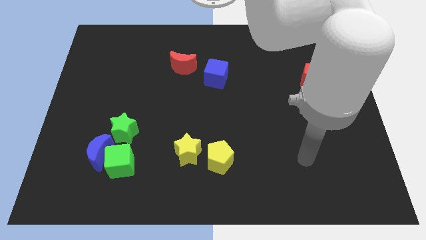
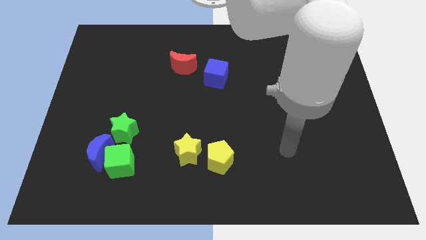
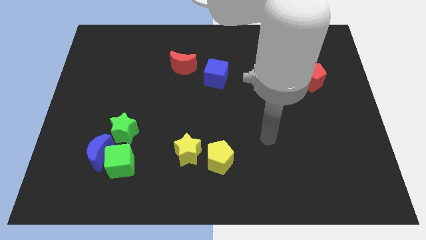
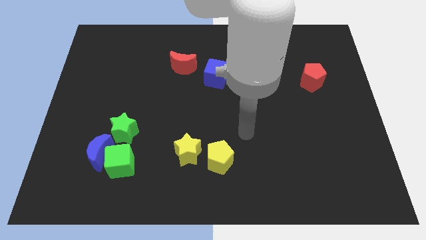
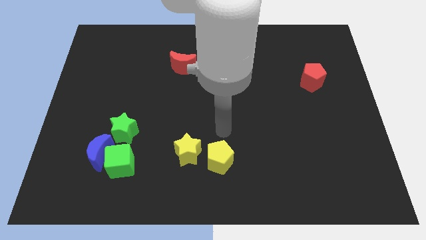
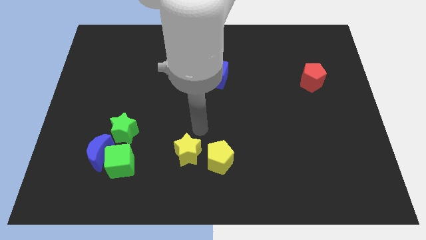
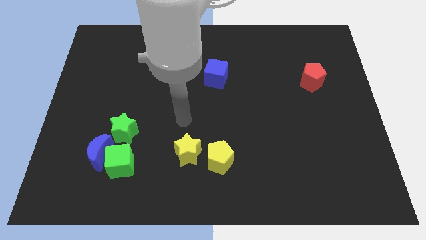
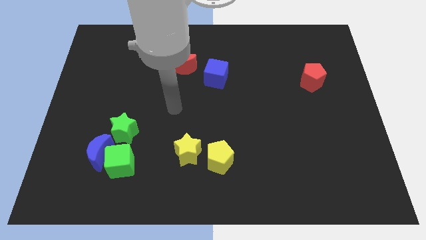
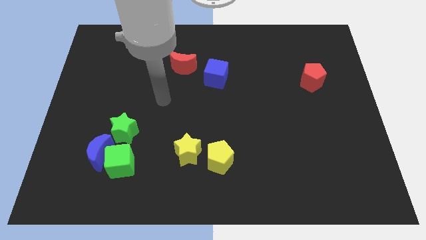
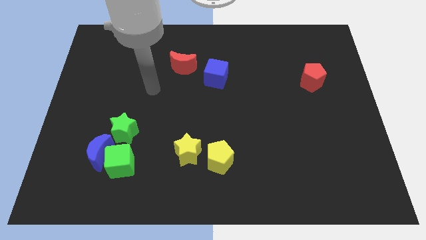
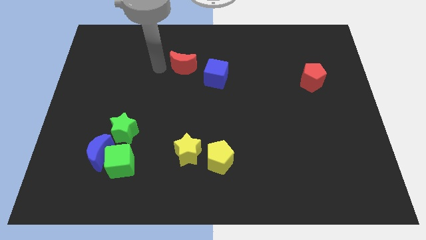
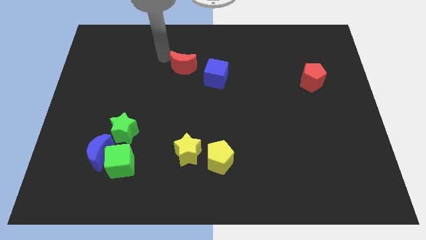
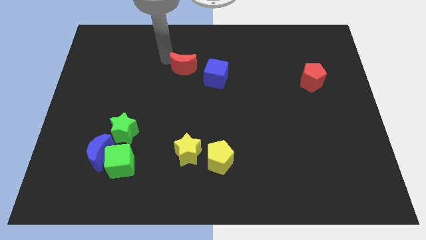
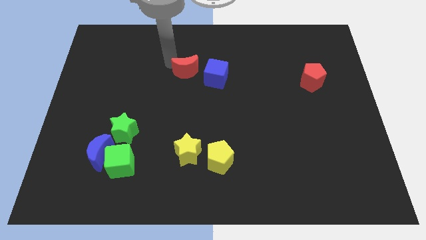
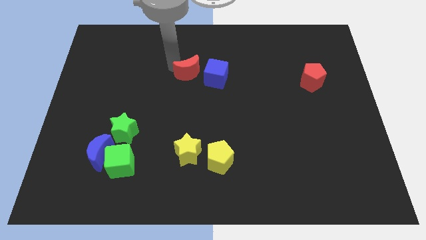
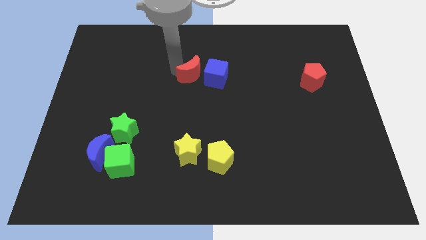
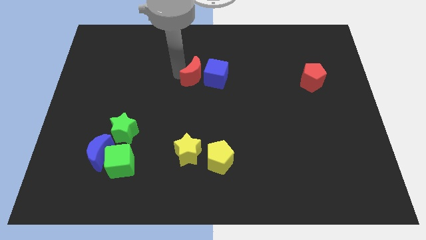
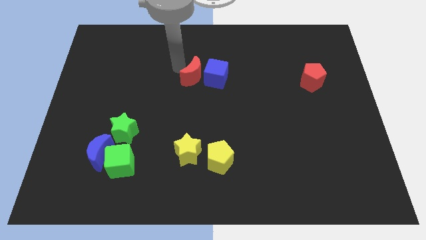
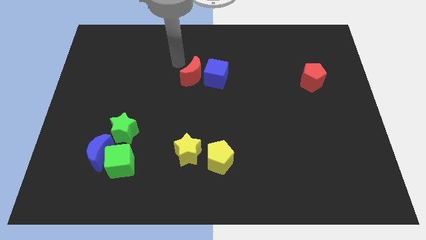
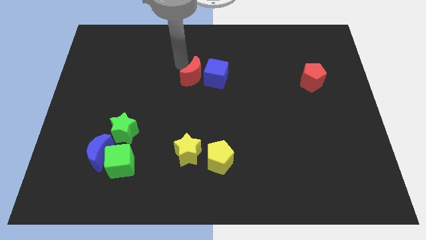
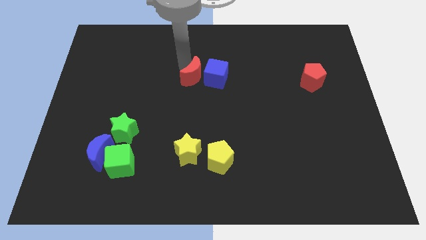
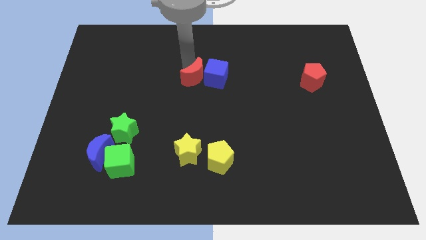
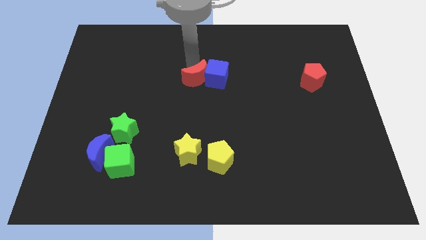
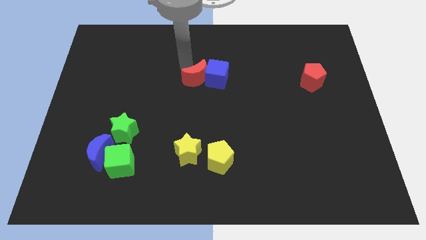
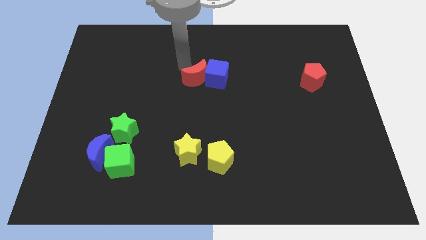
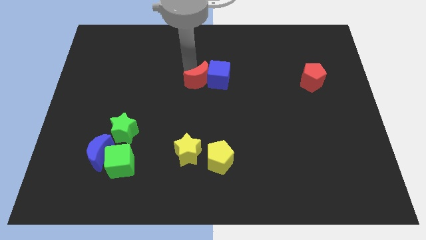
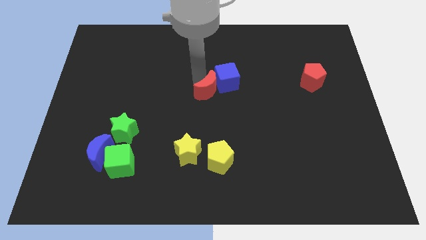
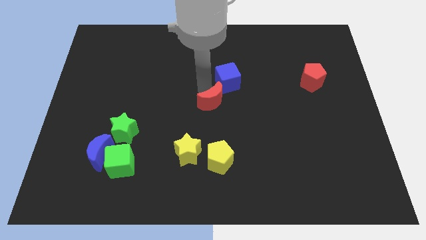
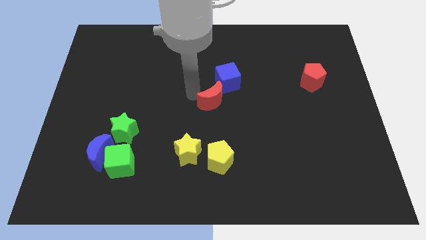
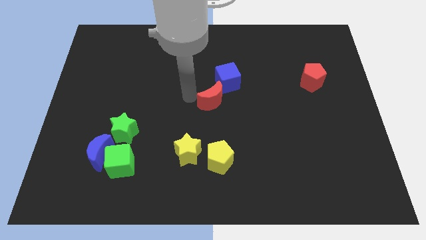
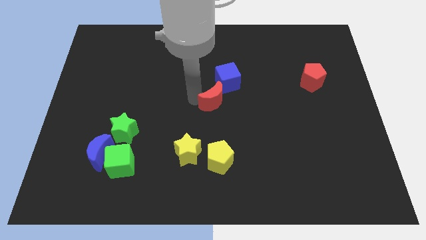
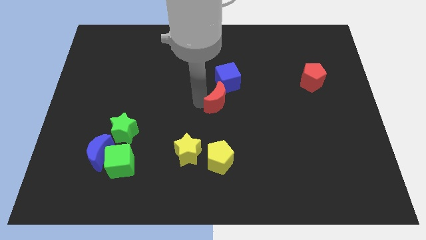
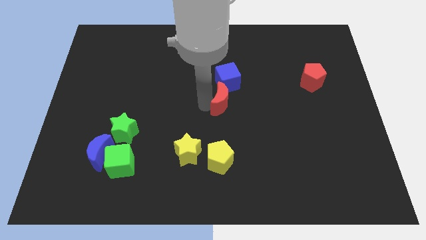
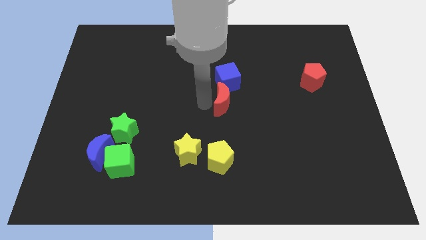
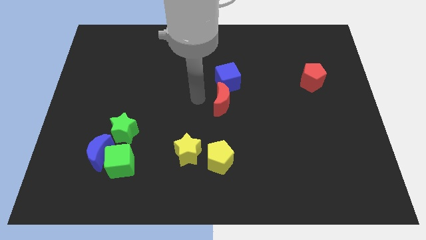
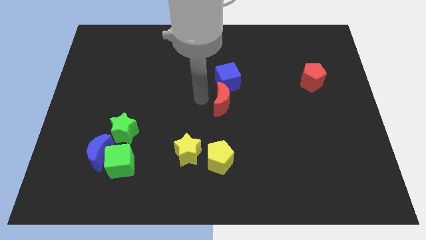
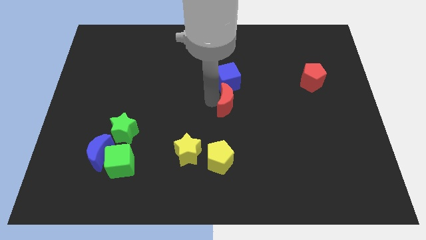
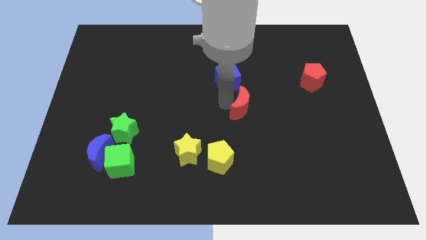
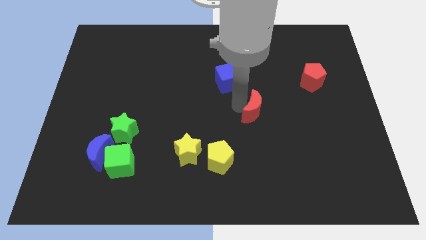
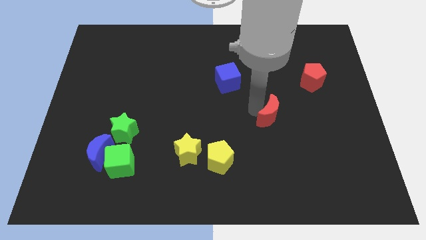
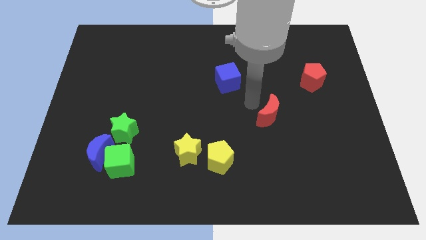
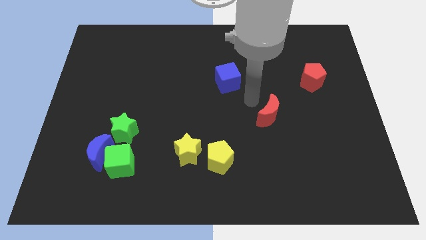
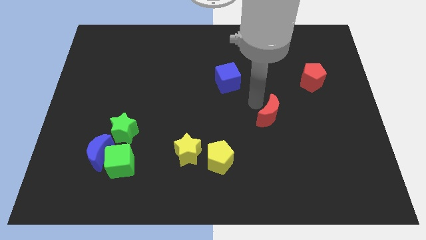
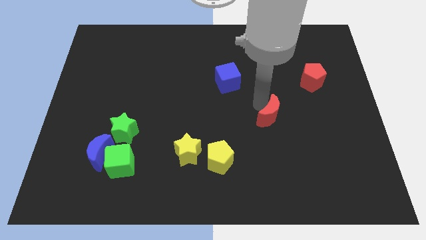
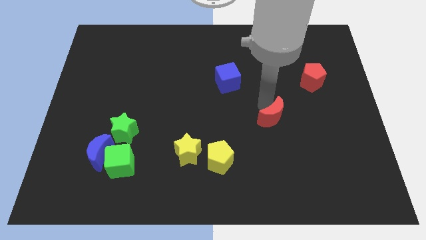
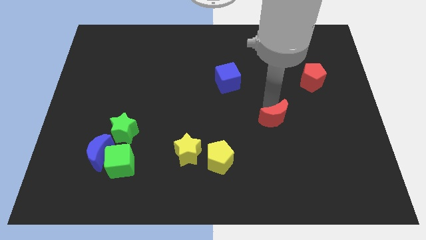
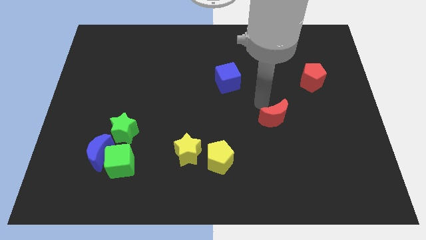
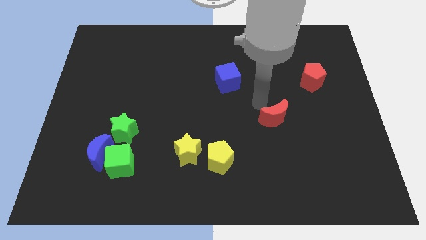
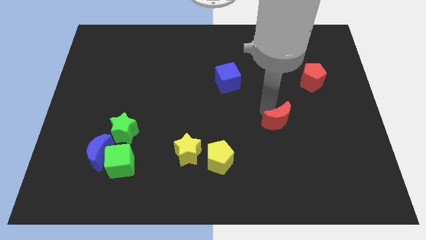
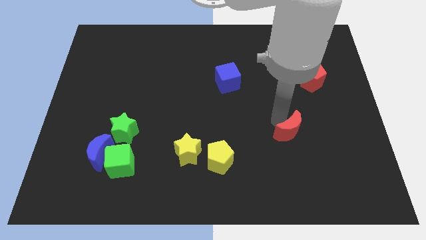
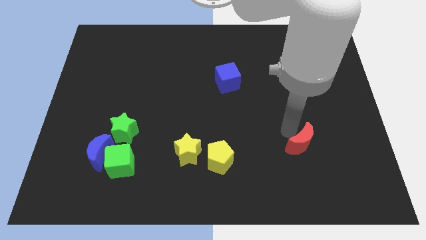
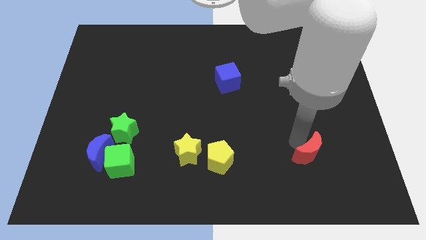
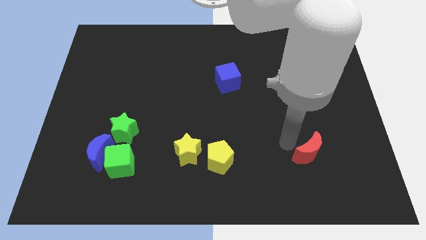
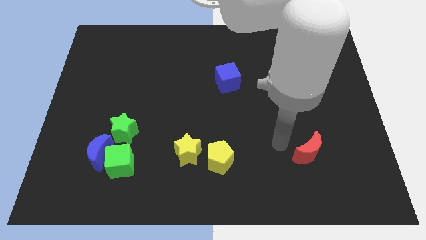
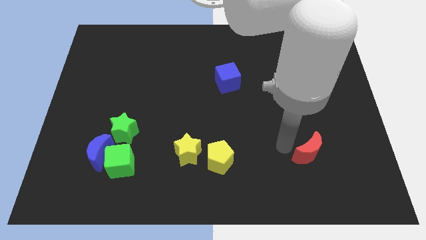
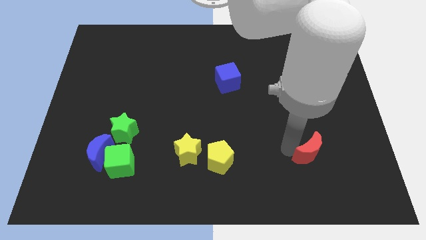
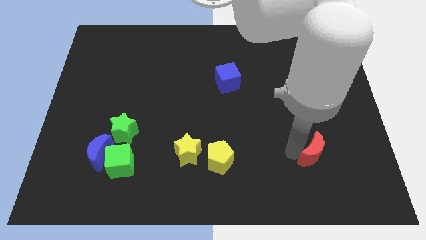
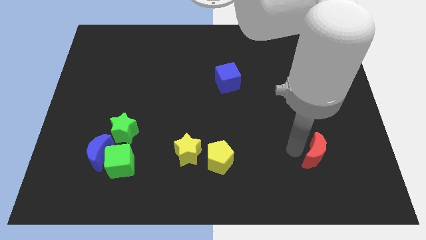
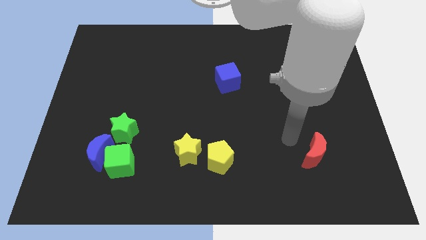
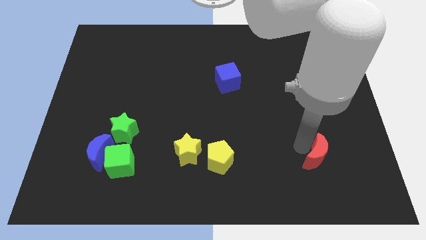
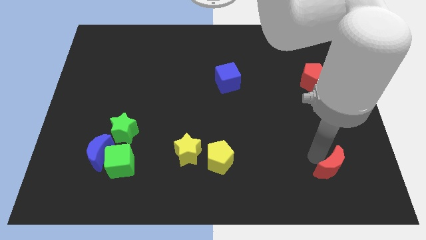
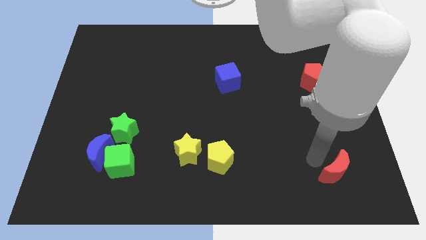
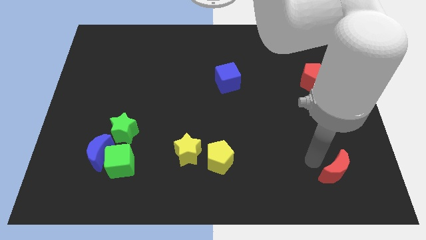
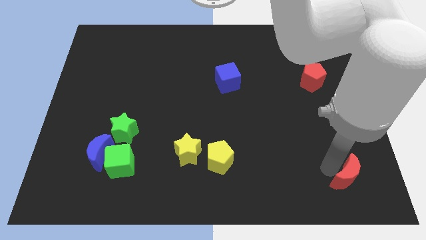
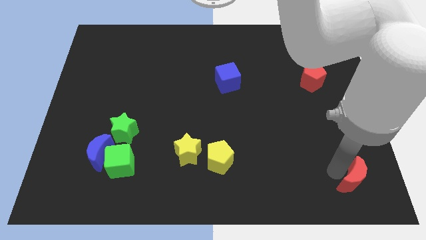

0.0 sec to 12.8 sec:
move the red moon to the bottom right of the board

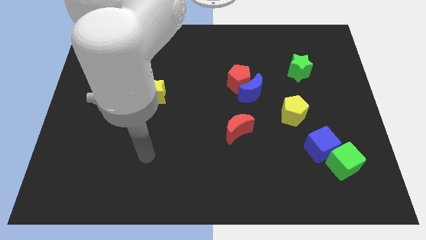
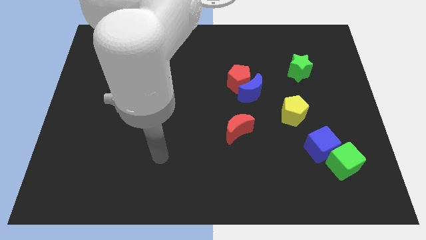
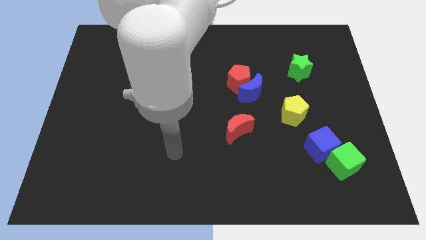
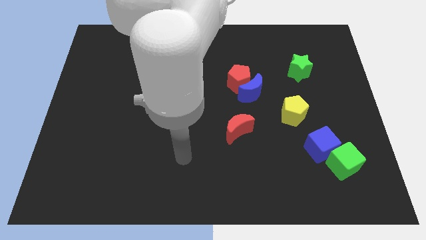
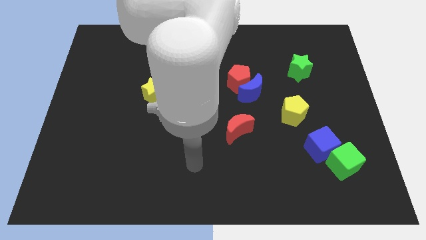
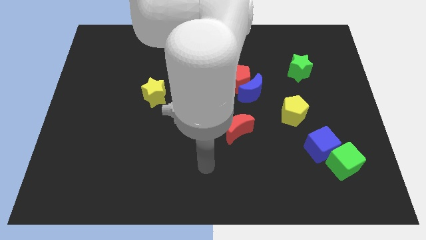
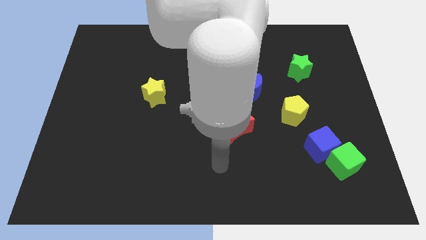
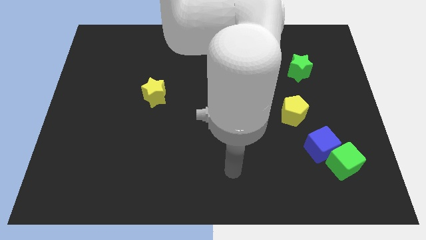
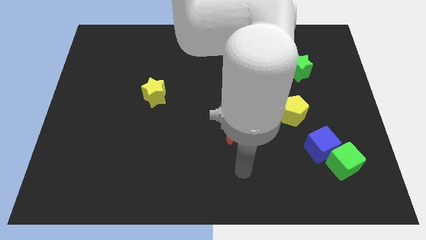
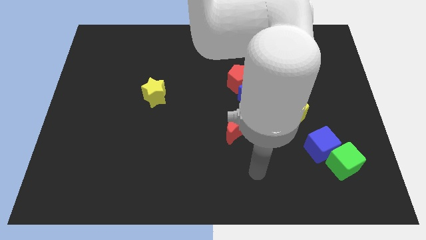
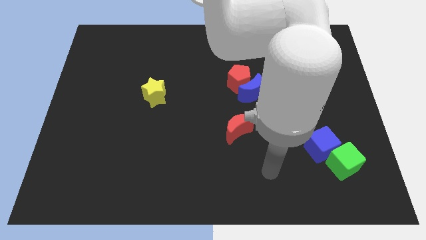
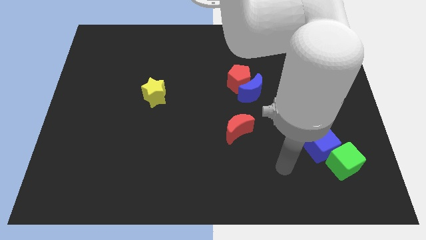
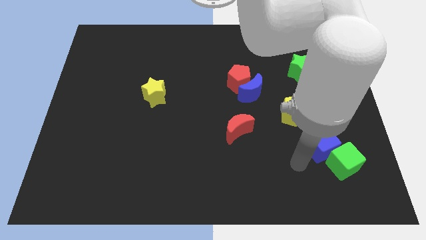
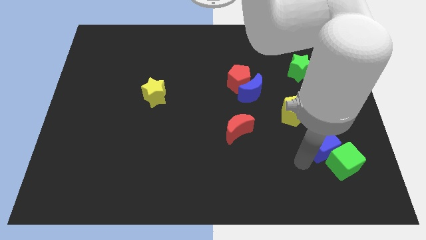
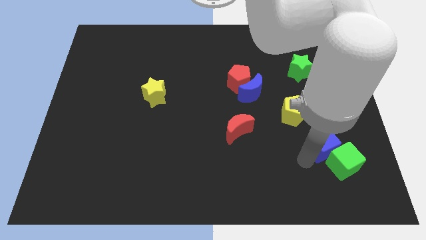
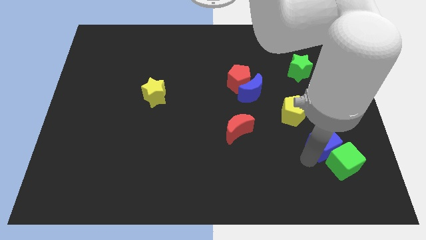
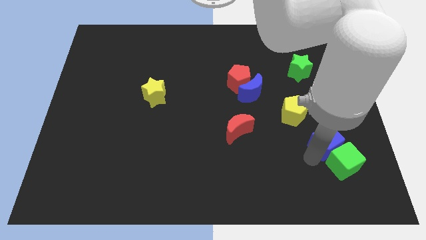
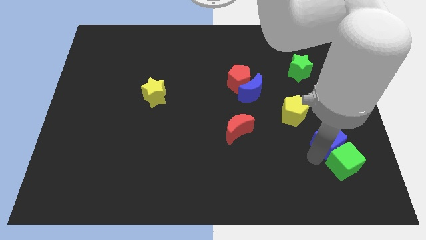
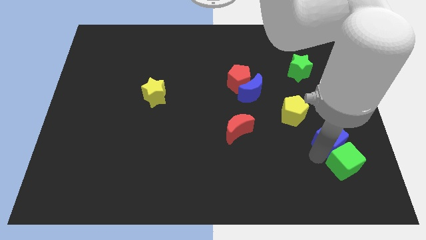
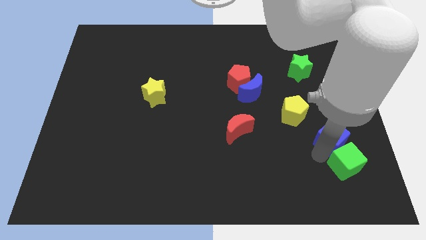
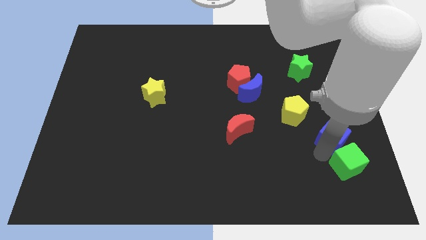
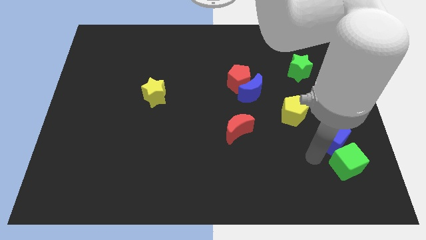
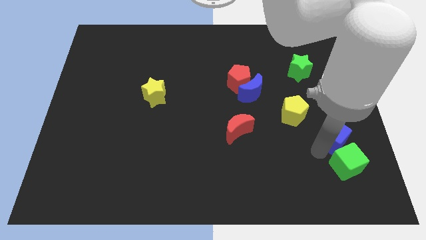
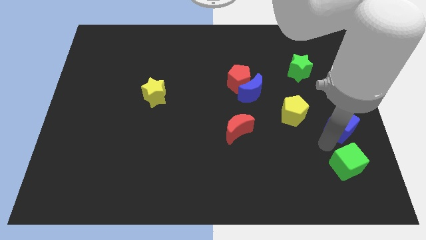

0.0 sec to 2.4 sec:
move the blue cube to the right side
